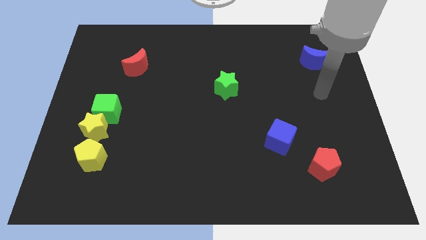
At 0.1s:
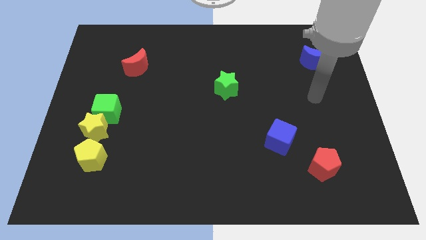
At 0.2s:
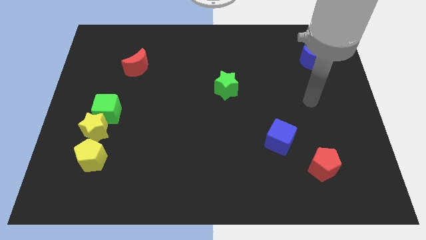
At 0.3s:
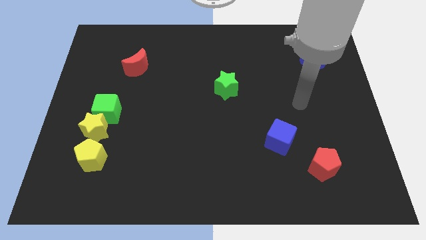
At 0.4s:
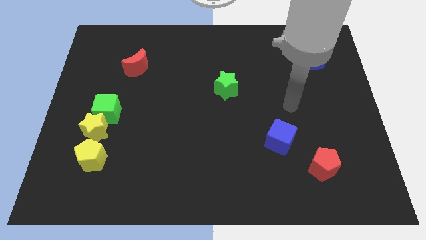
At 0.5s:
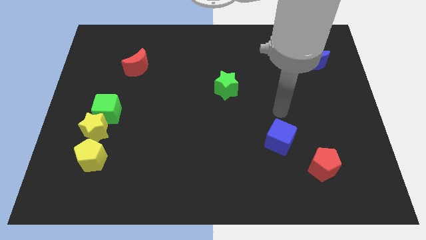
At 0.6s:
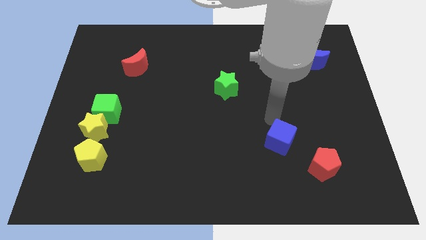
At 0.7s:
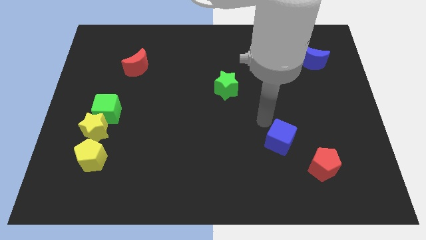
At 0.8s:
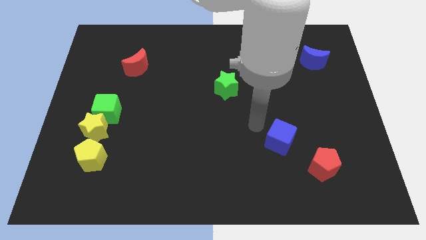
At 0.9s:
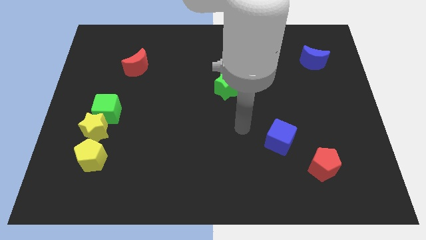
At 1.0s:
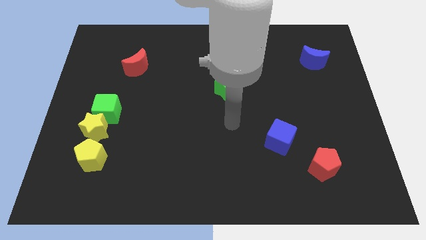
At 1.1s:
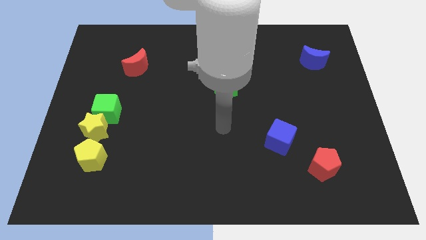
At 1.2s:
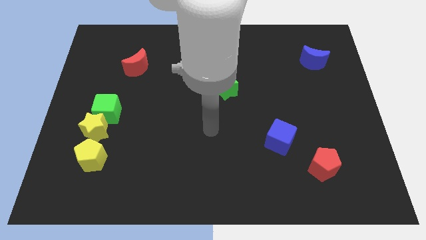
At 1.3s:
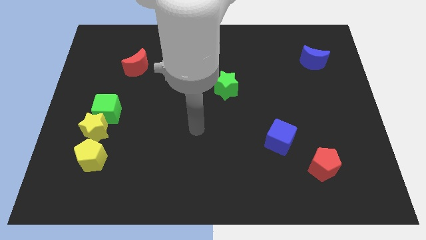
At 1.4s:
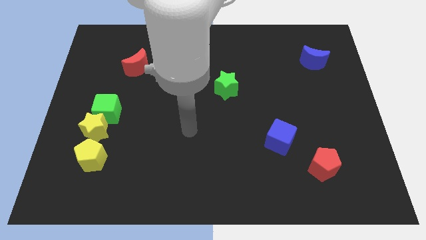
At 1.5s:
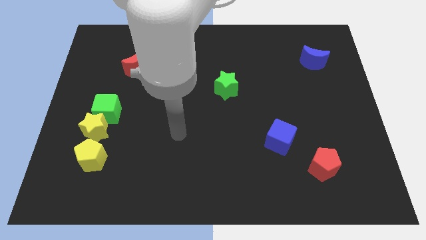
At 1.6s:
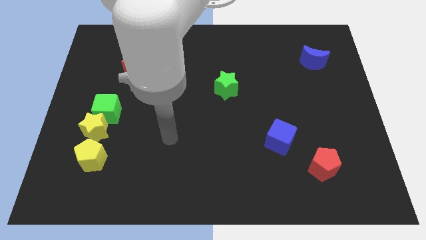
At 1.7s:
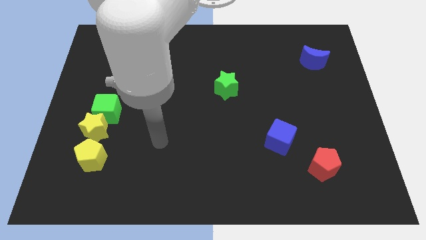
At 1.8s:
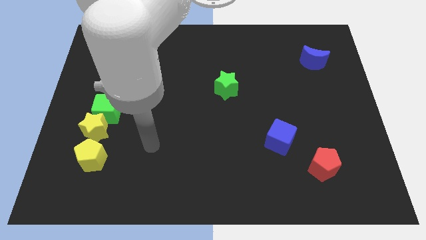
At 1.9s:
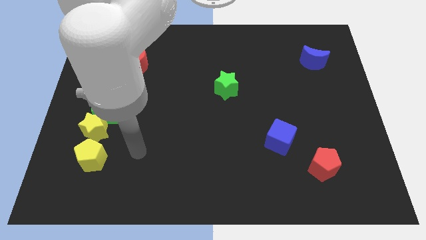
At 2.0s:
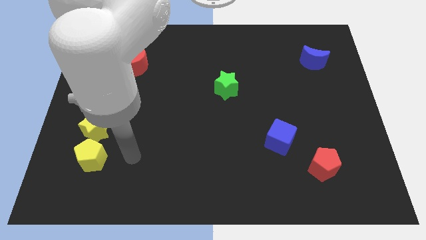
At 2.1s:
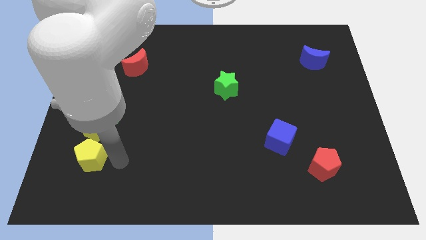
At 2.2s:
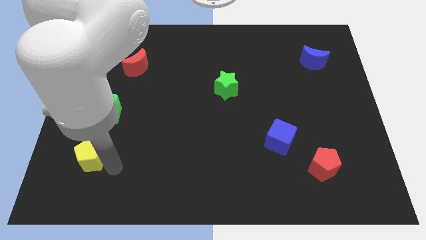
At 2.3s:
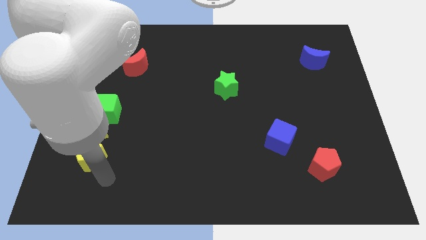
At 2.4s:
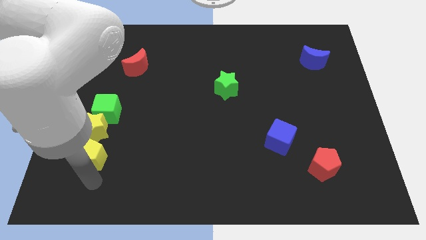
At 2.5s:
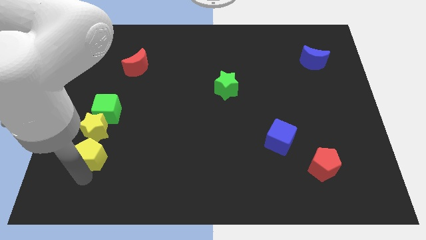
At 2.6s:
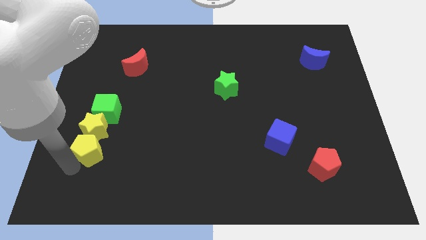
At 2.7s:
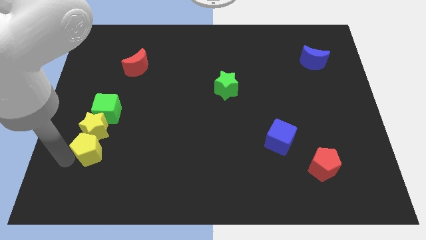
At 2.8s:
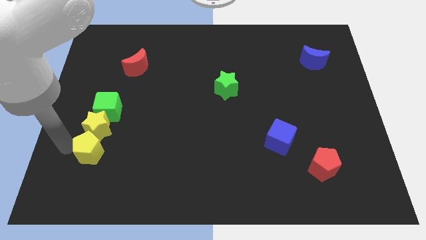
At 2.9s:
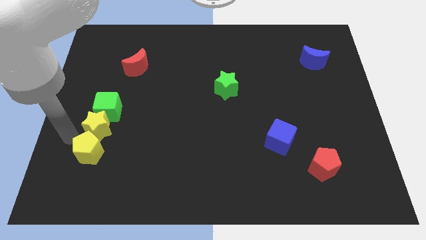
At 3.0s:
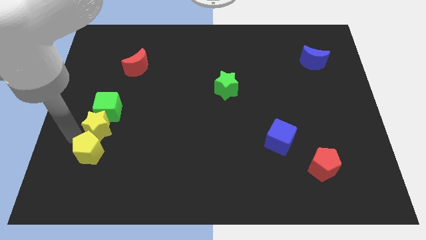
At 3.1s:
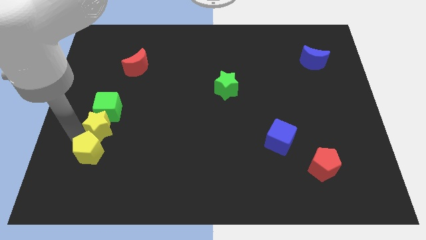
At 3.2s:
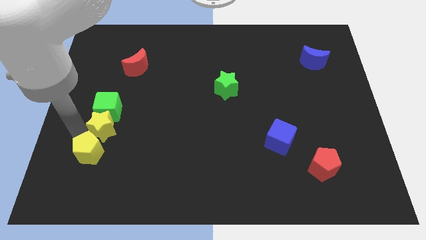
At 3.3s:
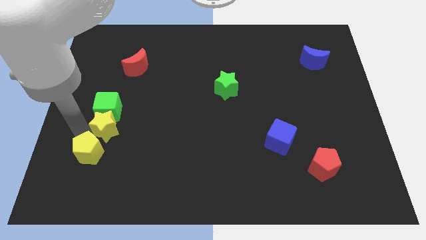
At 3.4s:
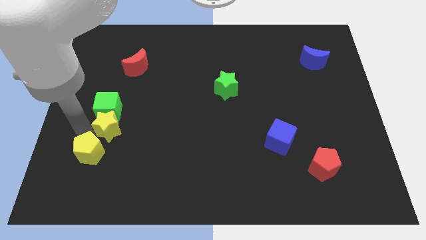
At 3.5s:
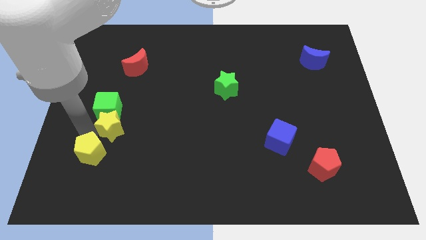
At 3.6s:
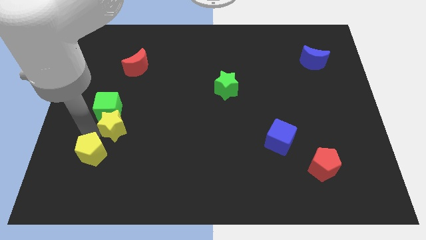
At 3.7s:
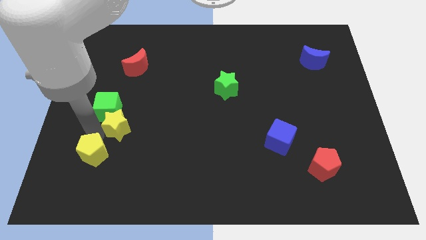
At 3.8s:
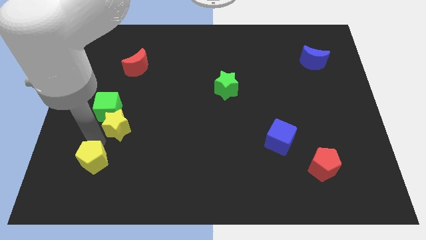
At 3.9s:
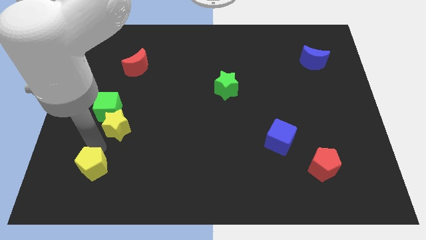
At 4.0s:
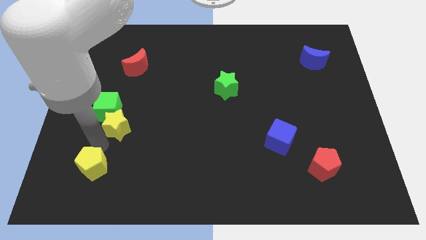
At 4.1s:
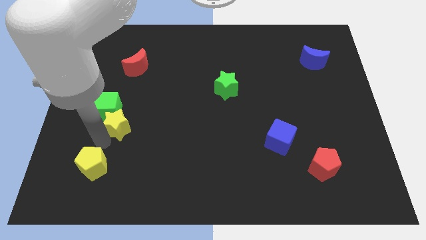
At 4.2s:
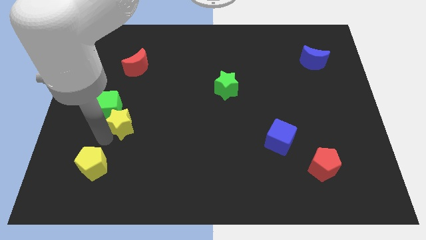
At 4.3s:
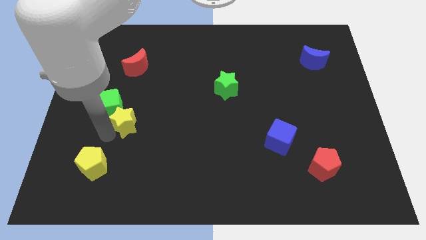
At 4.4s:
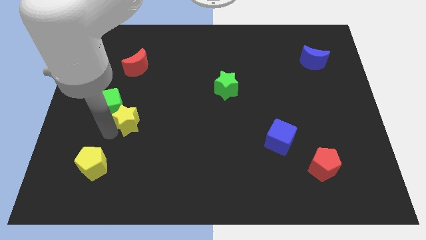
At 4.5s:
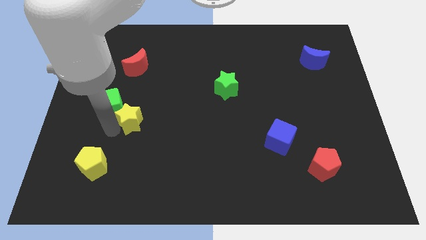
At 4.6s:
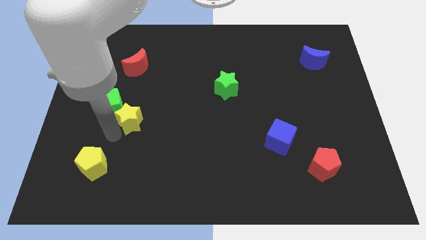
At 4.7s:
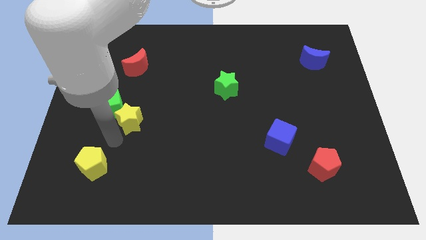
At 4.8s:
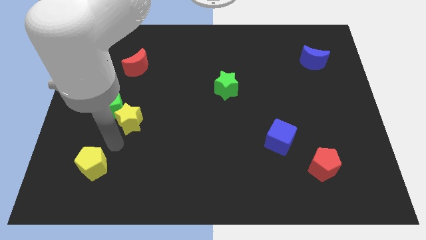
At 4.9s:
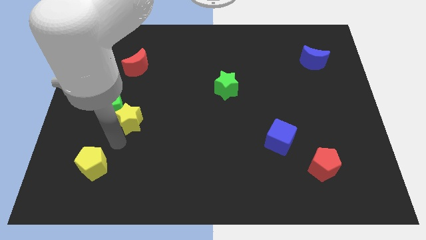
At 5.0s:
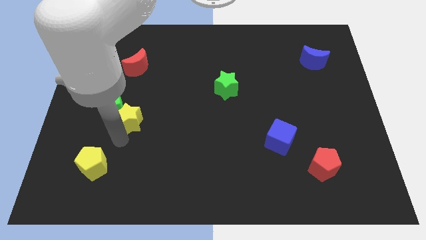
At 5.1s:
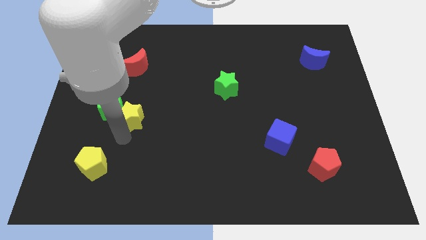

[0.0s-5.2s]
move the yellow star up and right somewhat

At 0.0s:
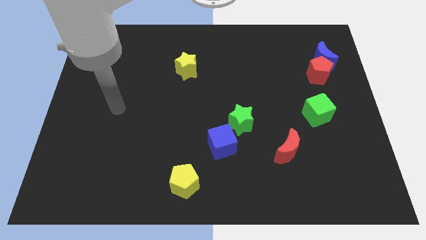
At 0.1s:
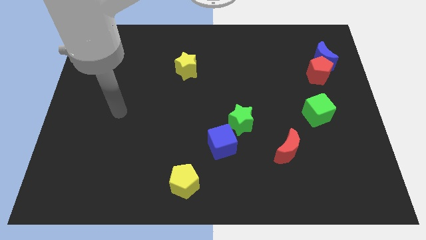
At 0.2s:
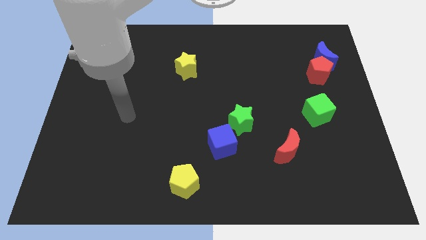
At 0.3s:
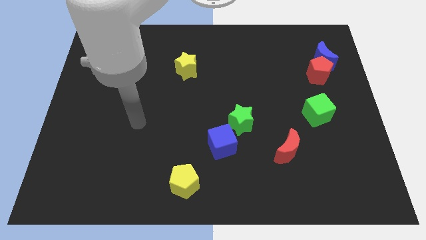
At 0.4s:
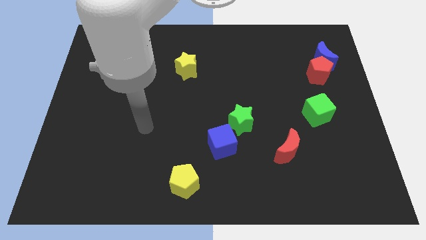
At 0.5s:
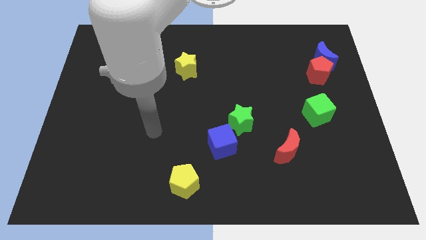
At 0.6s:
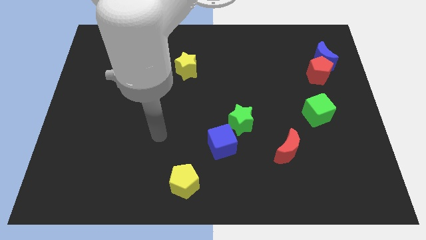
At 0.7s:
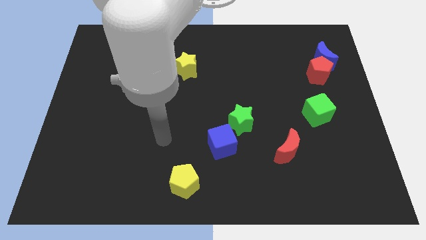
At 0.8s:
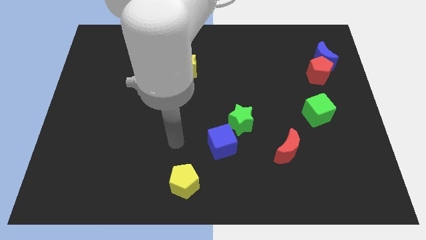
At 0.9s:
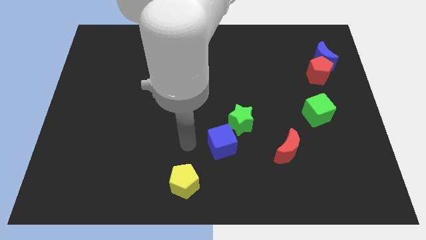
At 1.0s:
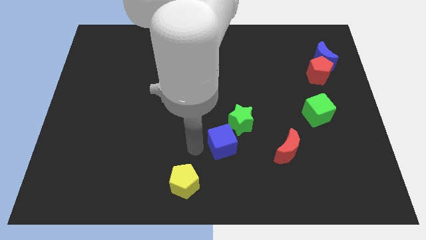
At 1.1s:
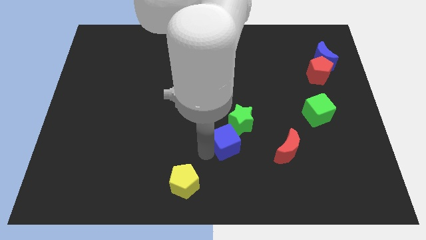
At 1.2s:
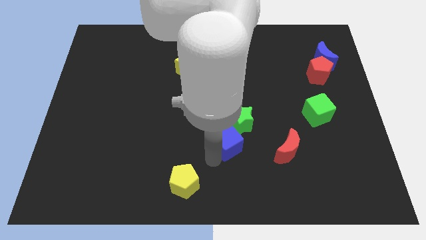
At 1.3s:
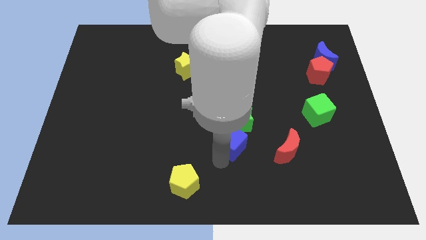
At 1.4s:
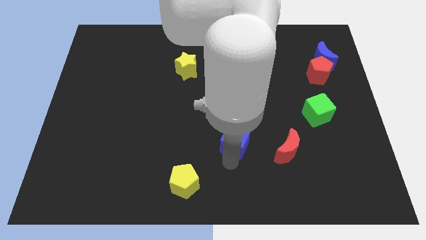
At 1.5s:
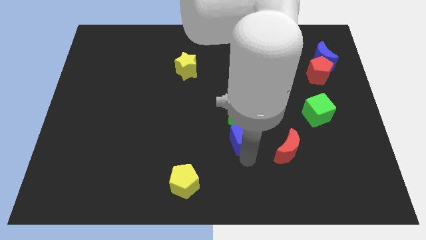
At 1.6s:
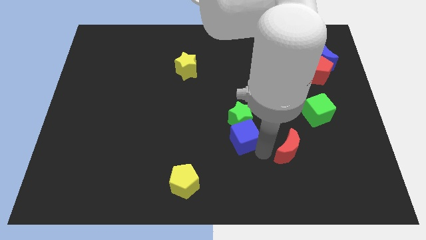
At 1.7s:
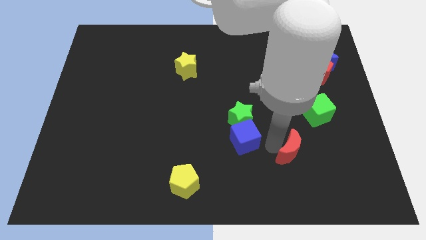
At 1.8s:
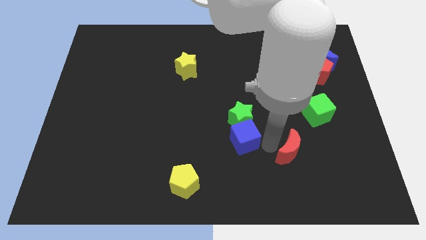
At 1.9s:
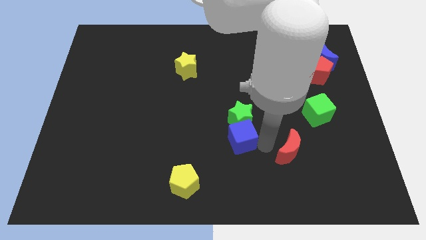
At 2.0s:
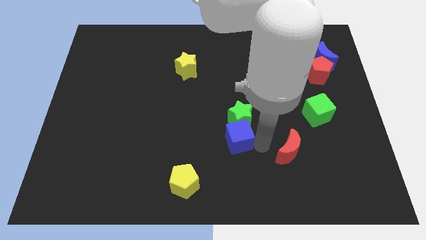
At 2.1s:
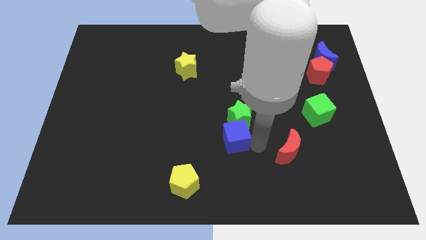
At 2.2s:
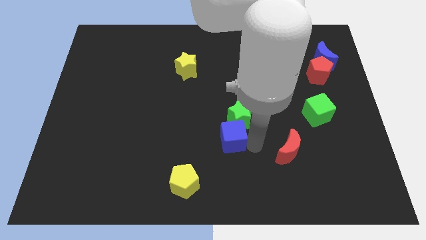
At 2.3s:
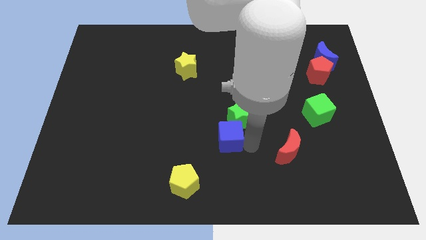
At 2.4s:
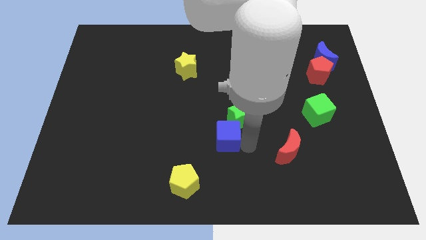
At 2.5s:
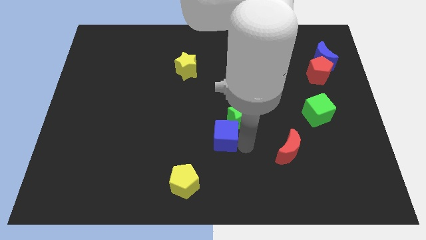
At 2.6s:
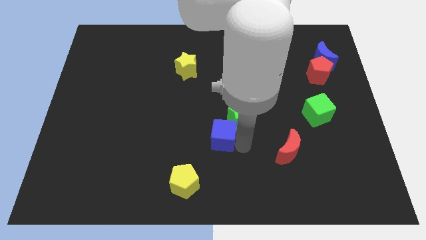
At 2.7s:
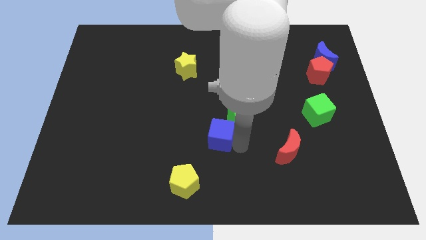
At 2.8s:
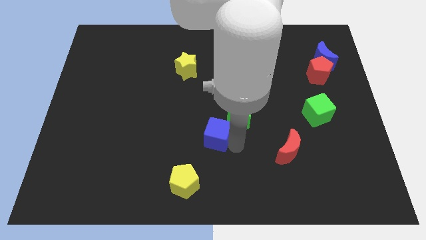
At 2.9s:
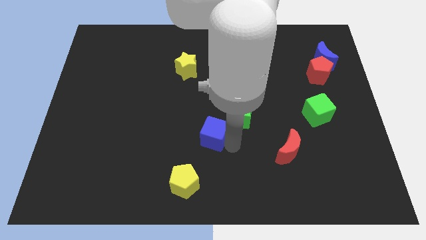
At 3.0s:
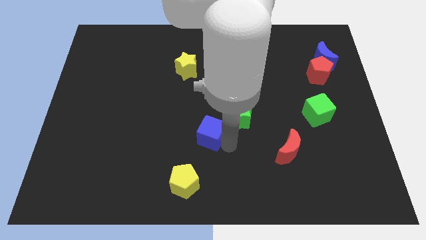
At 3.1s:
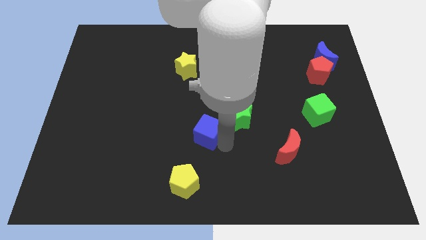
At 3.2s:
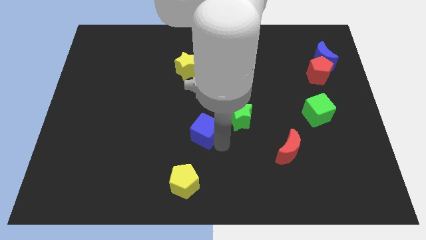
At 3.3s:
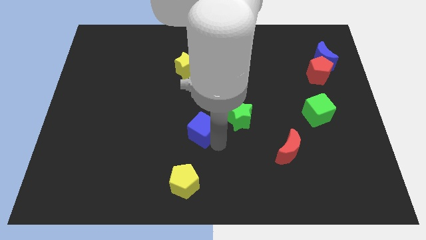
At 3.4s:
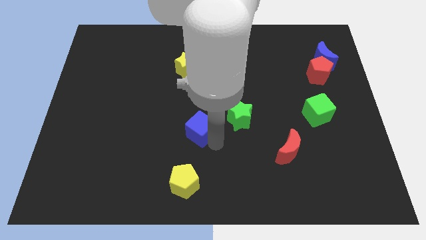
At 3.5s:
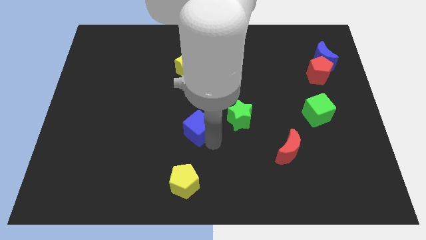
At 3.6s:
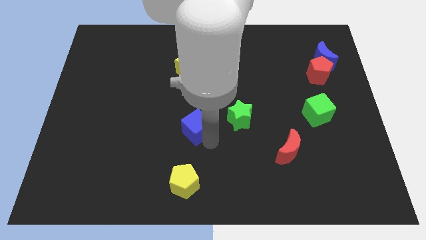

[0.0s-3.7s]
move the blue cube somewhat upwards and left diagonally
